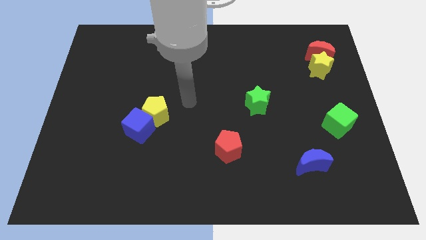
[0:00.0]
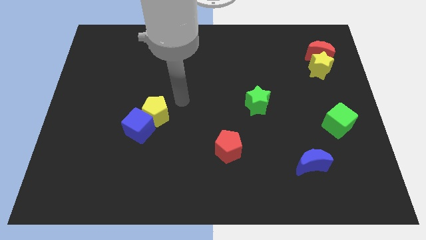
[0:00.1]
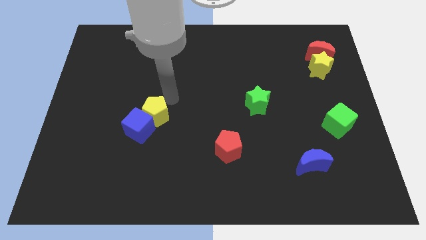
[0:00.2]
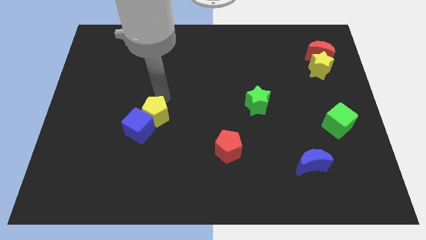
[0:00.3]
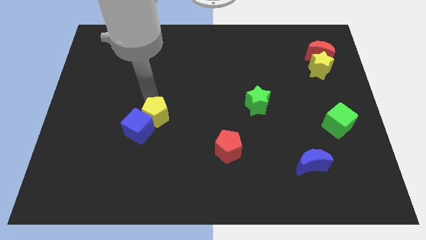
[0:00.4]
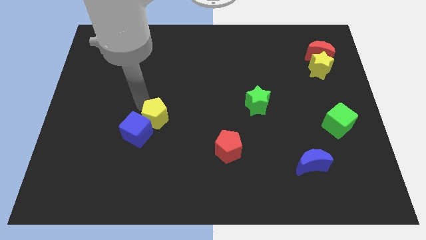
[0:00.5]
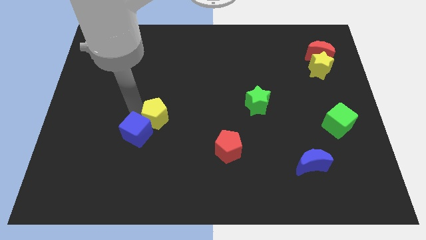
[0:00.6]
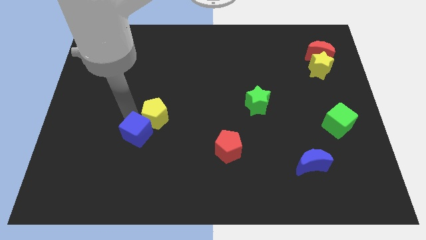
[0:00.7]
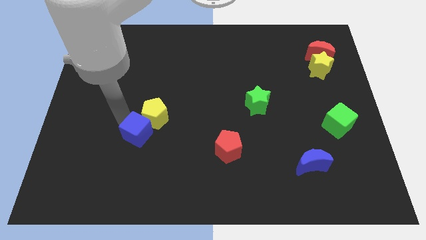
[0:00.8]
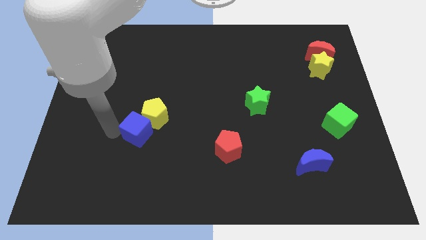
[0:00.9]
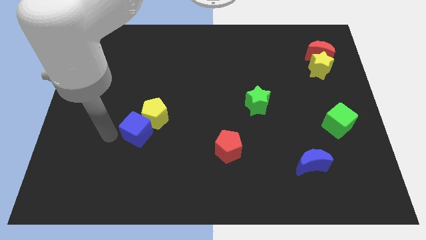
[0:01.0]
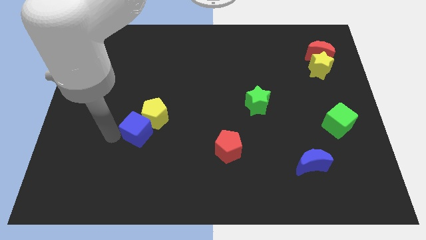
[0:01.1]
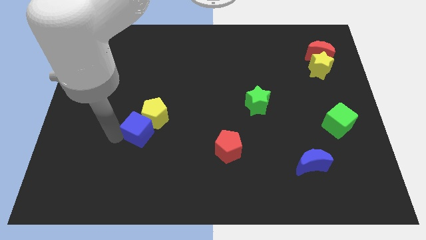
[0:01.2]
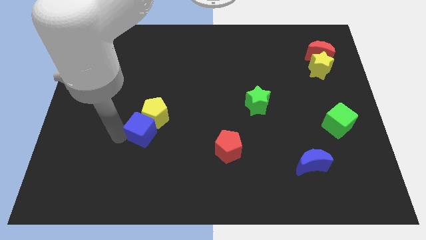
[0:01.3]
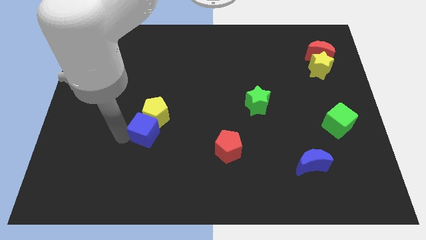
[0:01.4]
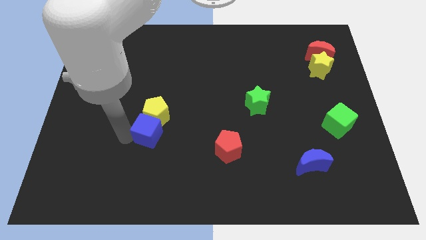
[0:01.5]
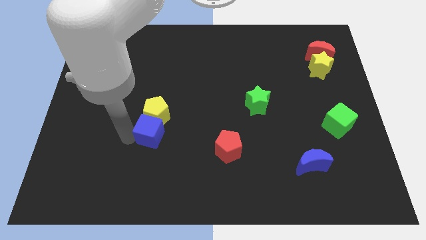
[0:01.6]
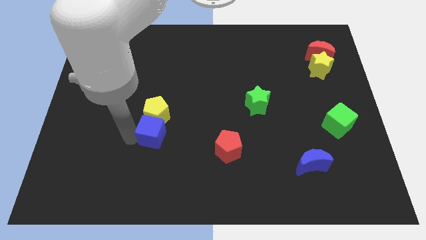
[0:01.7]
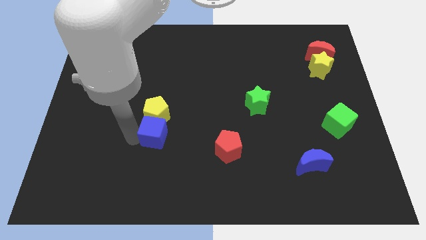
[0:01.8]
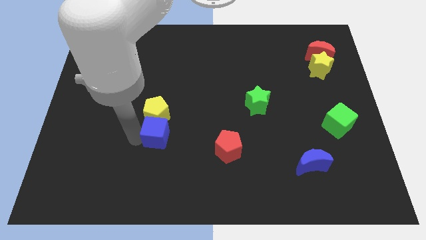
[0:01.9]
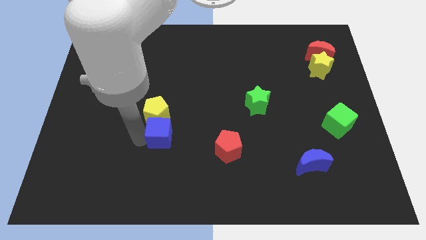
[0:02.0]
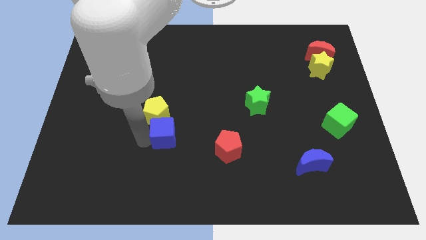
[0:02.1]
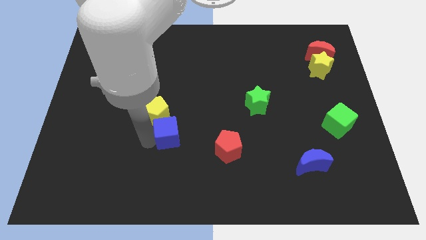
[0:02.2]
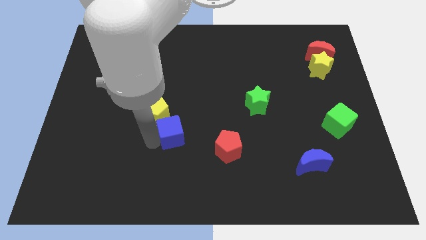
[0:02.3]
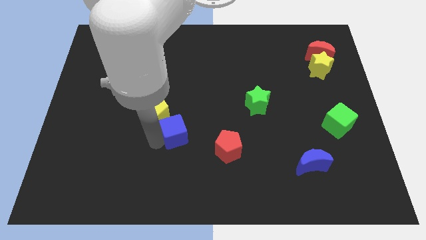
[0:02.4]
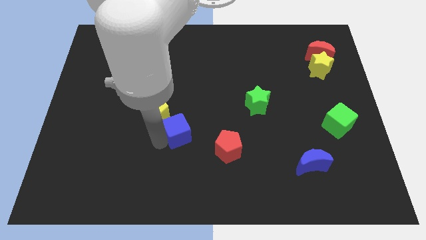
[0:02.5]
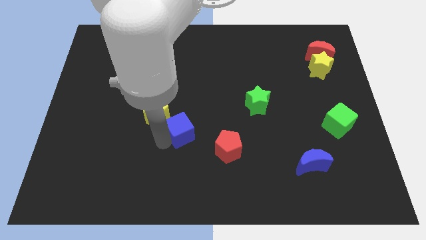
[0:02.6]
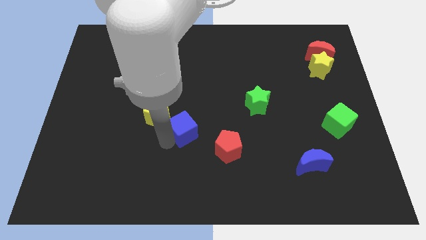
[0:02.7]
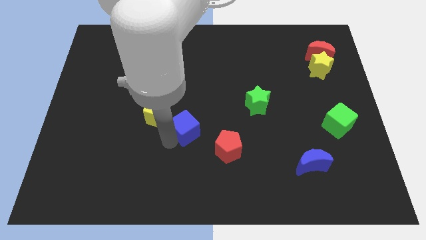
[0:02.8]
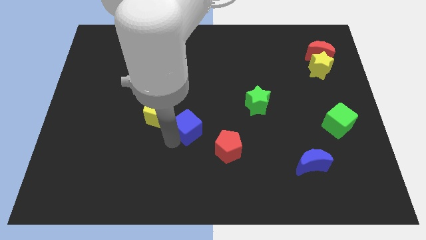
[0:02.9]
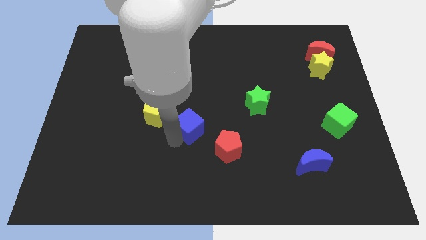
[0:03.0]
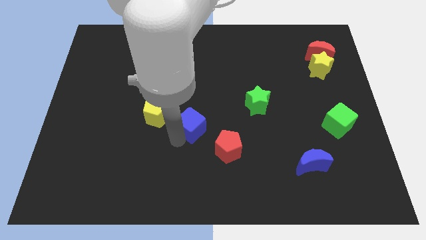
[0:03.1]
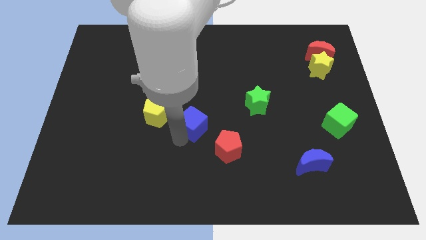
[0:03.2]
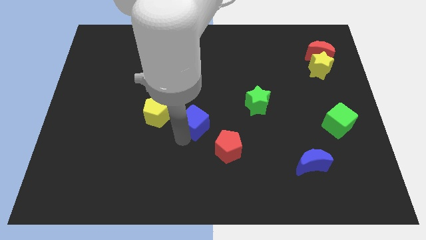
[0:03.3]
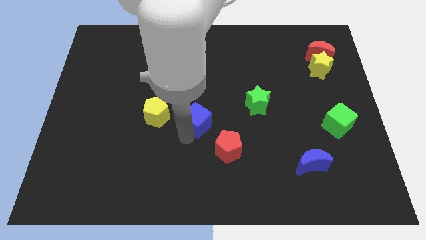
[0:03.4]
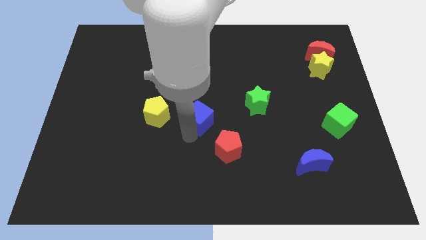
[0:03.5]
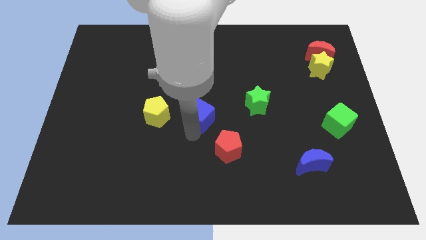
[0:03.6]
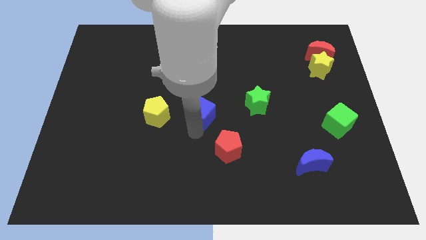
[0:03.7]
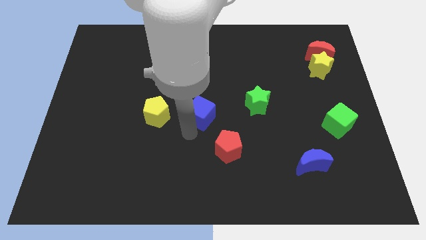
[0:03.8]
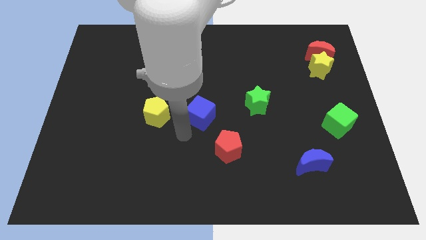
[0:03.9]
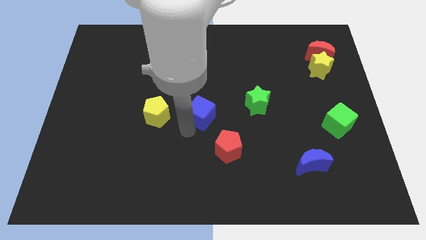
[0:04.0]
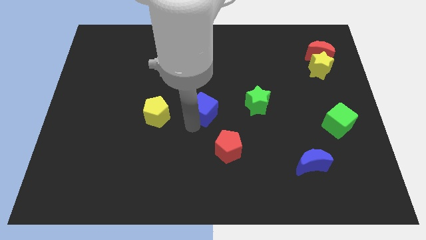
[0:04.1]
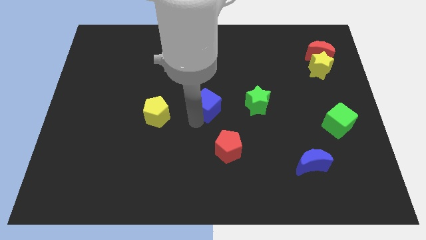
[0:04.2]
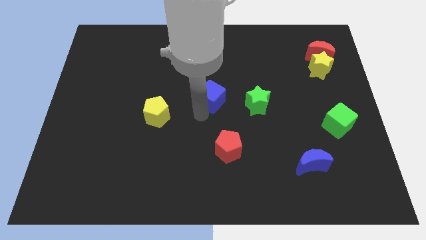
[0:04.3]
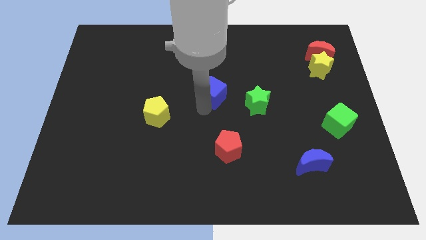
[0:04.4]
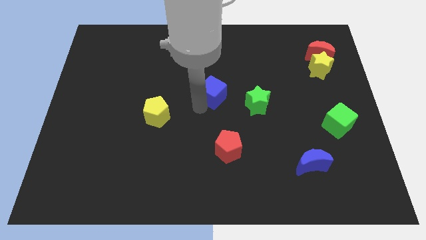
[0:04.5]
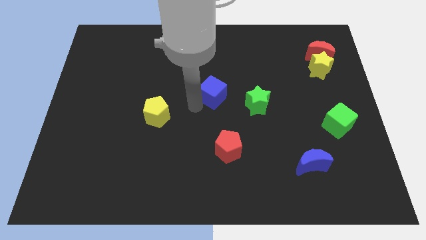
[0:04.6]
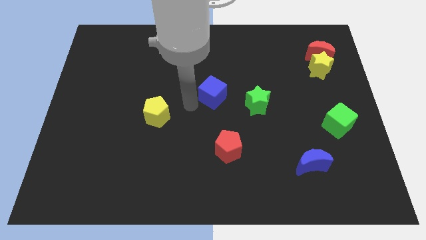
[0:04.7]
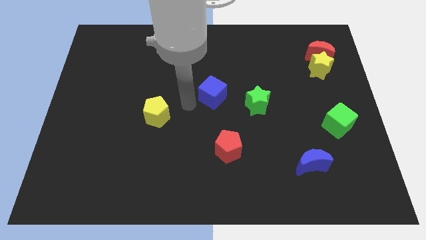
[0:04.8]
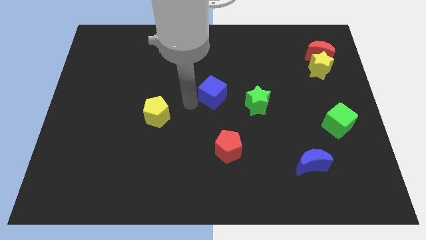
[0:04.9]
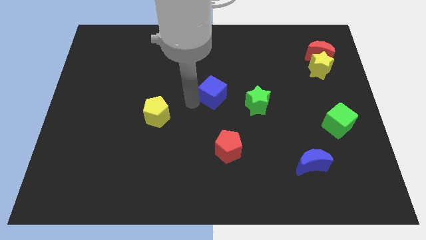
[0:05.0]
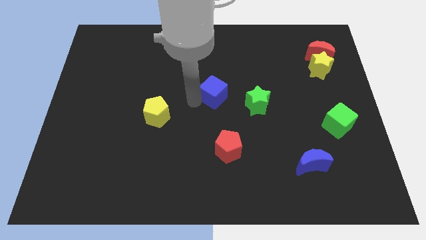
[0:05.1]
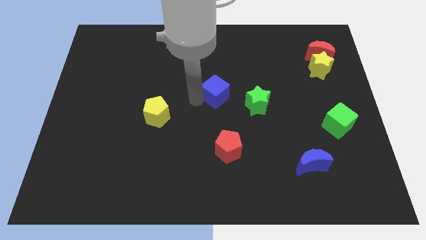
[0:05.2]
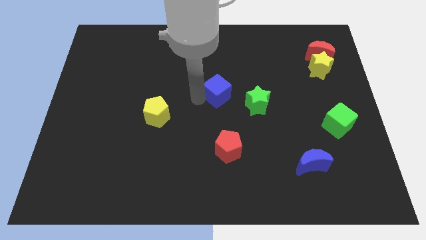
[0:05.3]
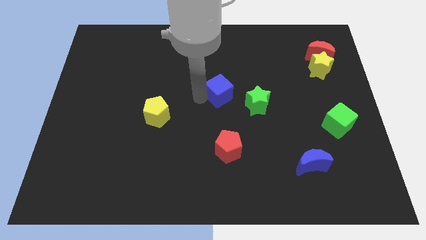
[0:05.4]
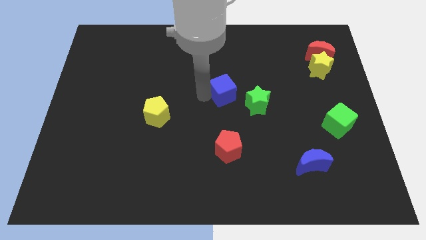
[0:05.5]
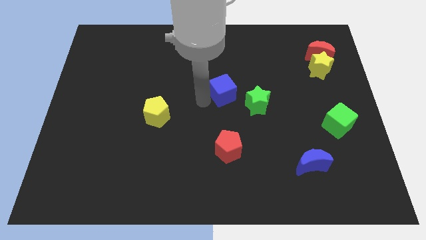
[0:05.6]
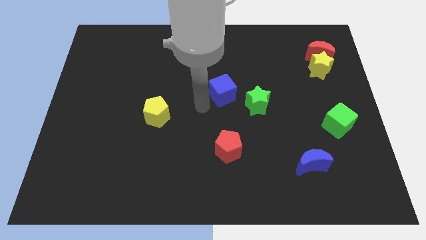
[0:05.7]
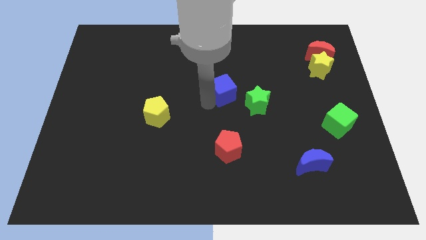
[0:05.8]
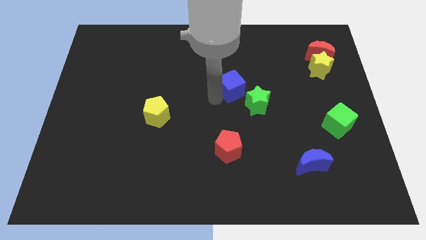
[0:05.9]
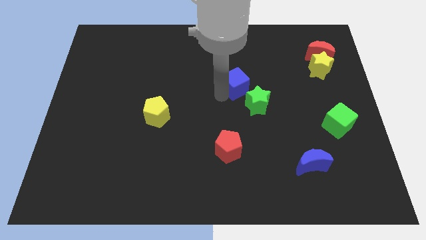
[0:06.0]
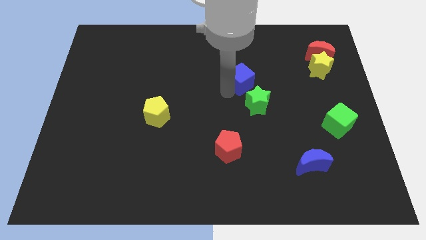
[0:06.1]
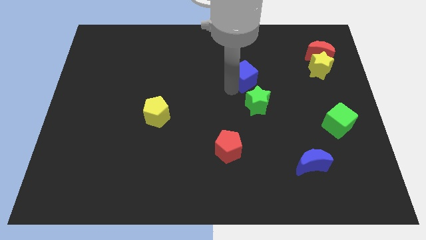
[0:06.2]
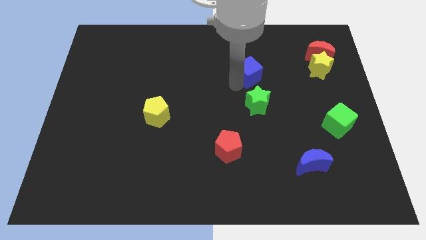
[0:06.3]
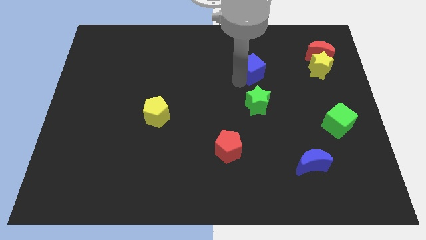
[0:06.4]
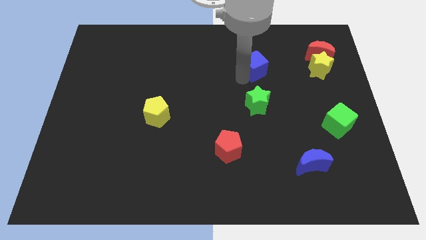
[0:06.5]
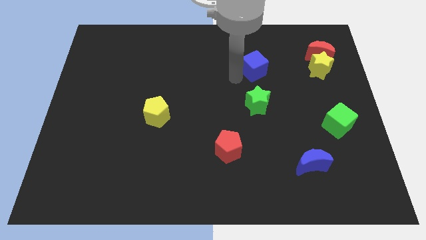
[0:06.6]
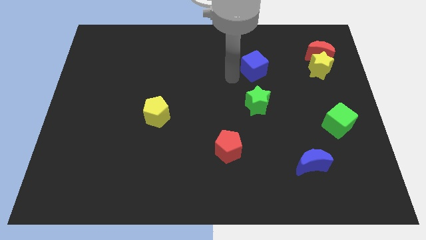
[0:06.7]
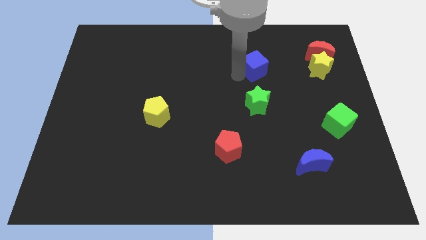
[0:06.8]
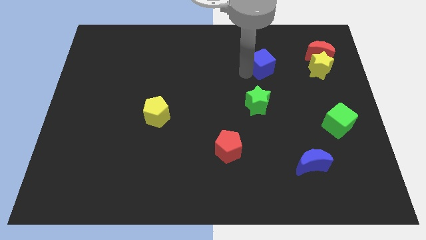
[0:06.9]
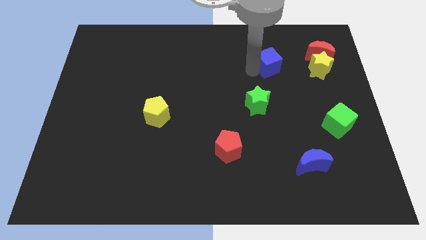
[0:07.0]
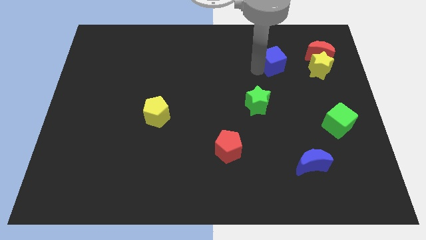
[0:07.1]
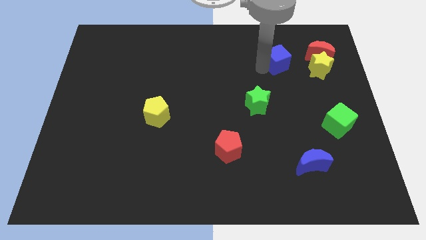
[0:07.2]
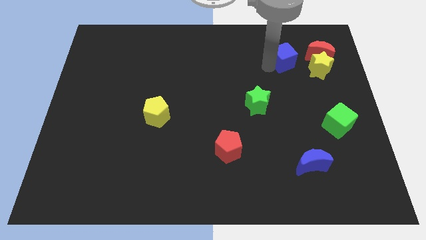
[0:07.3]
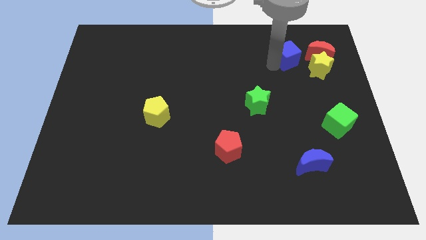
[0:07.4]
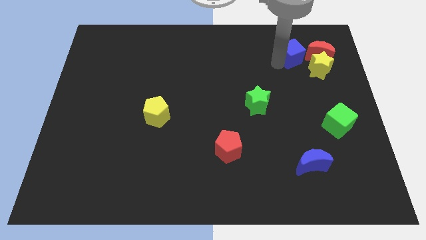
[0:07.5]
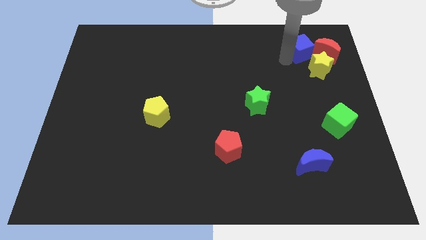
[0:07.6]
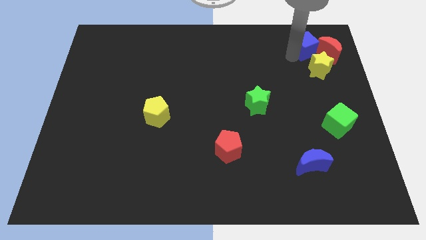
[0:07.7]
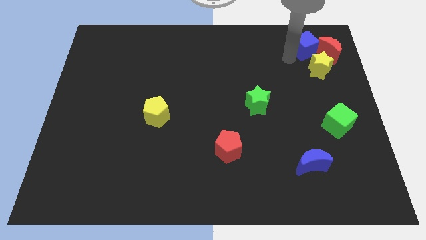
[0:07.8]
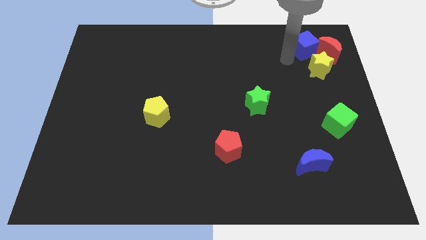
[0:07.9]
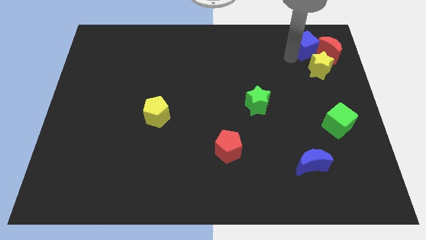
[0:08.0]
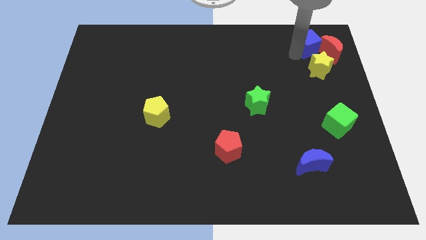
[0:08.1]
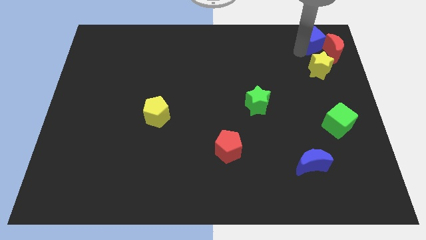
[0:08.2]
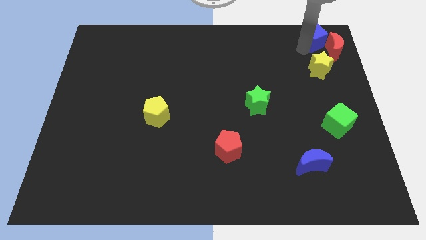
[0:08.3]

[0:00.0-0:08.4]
slide the blue cube to the top right corner
